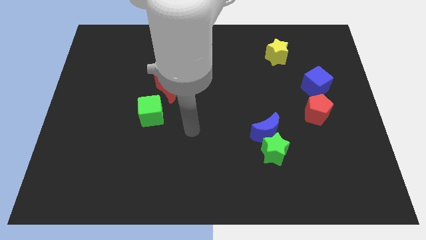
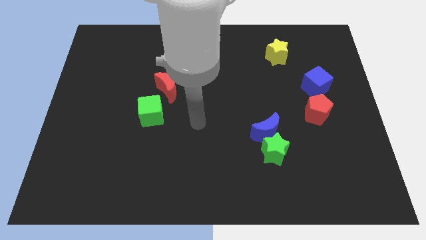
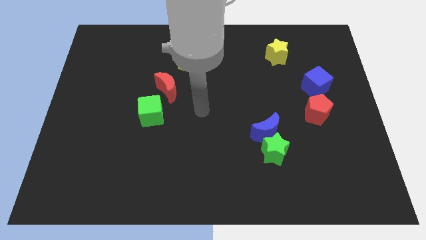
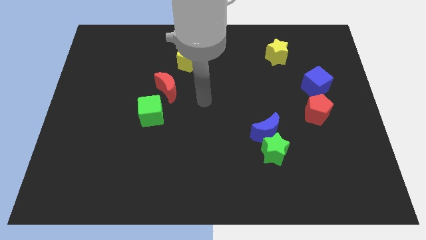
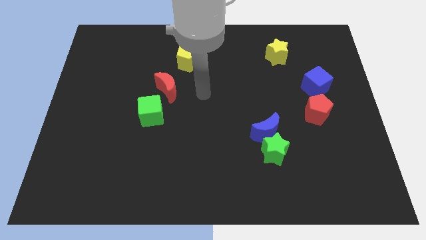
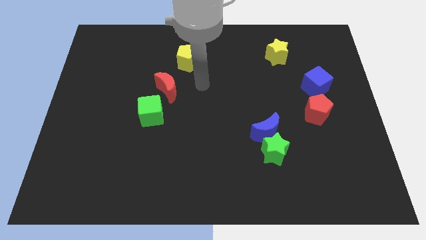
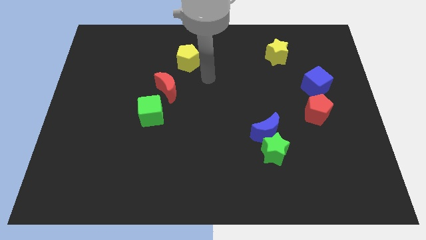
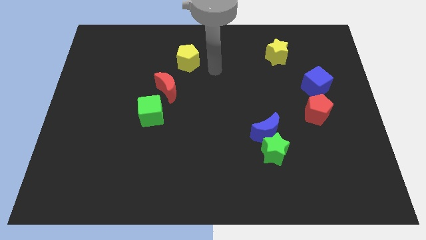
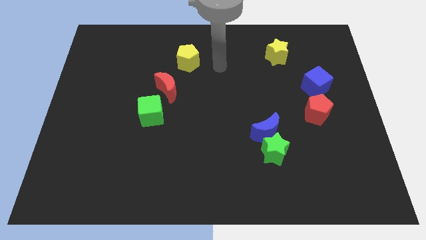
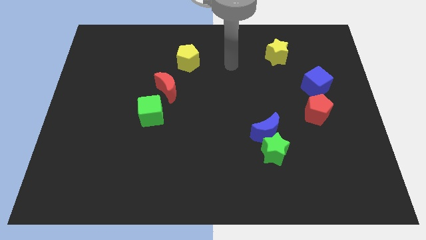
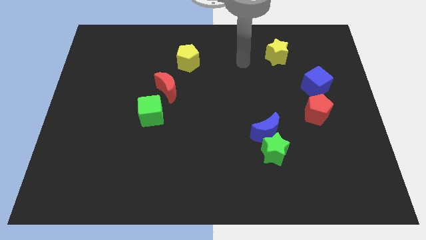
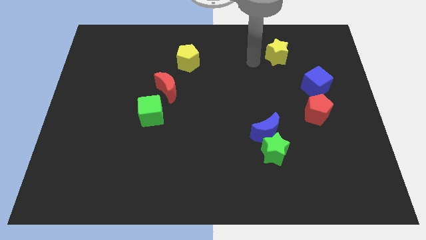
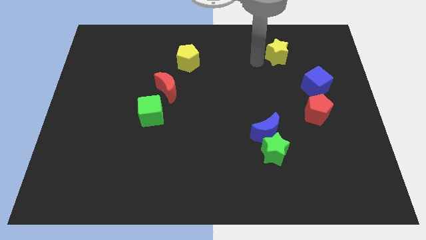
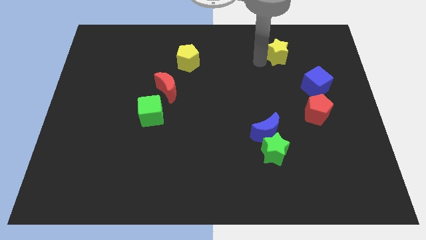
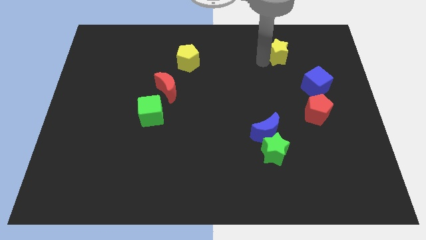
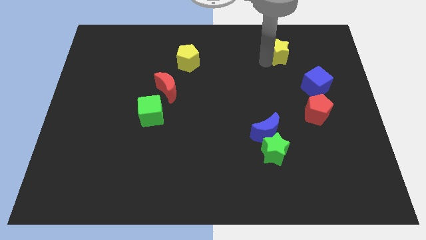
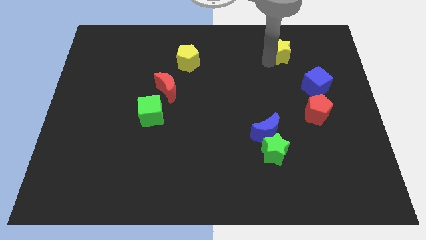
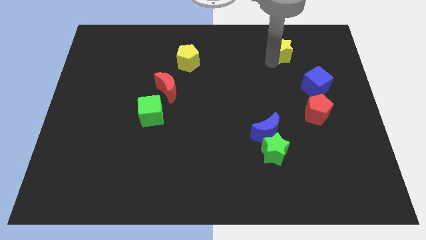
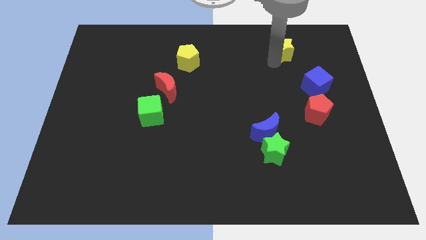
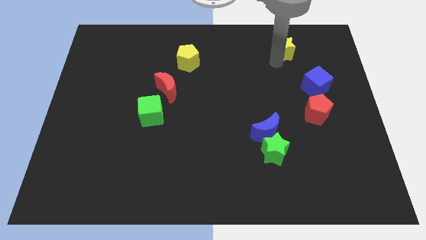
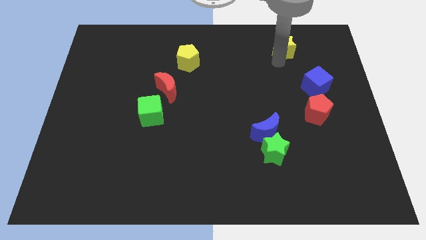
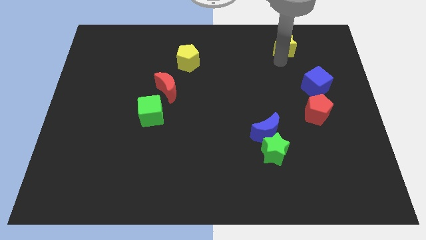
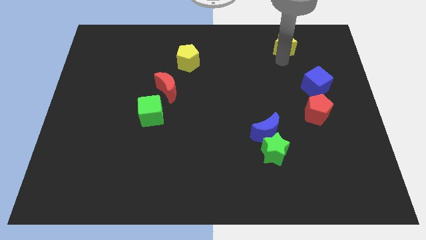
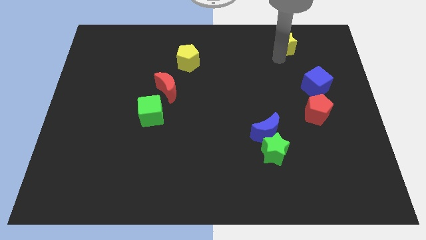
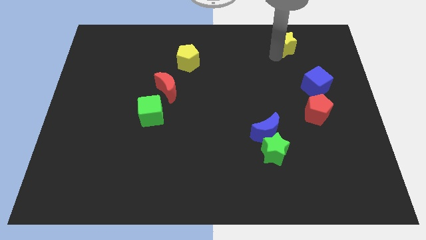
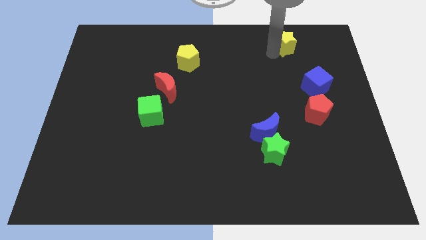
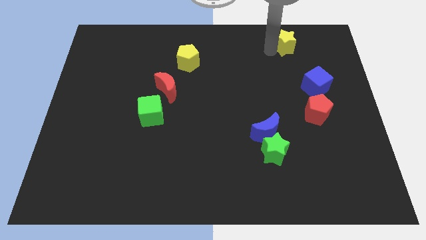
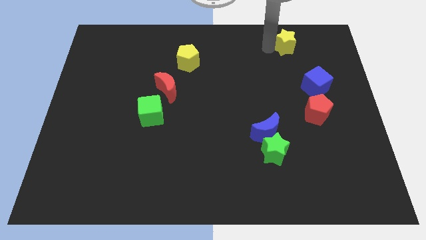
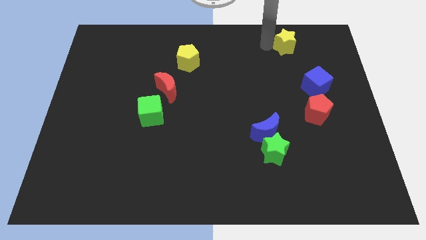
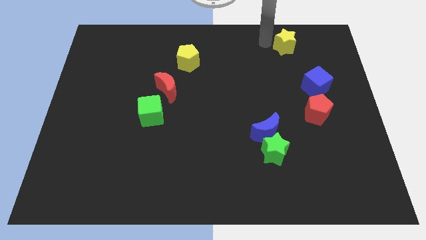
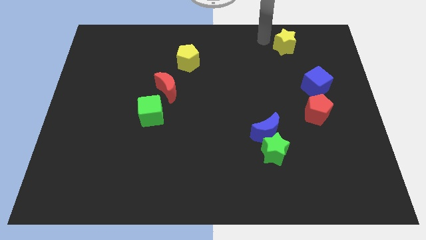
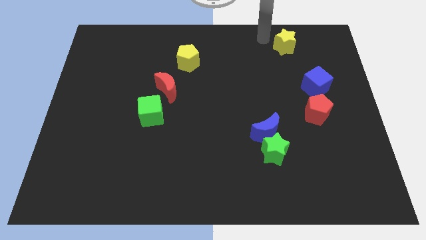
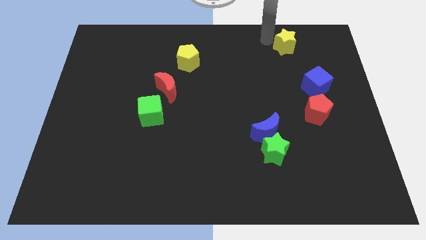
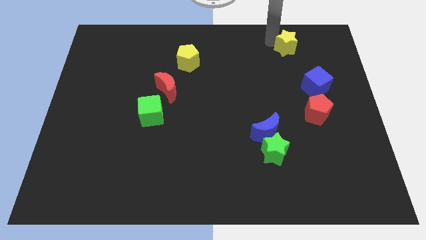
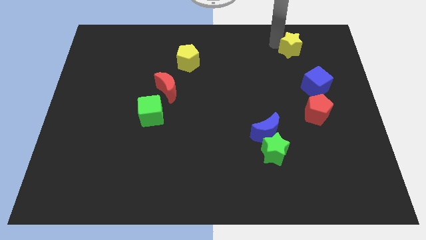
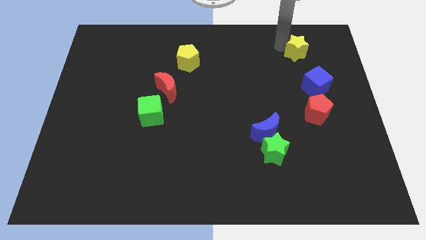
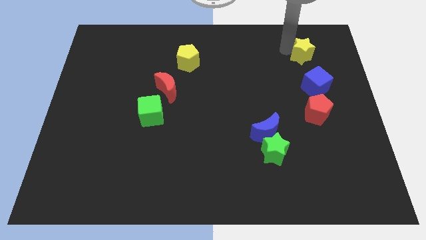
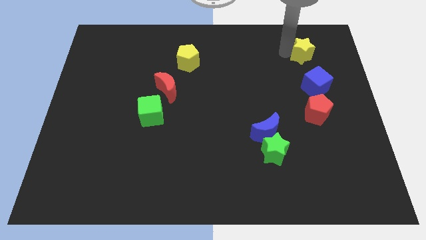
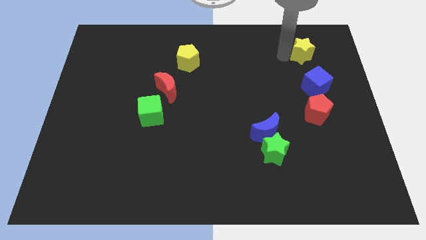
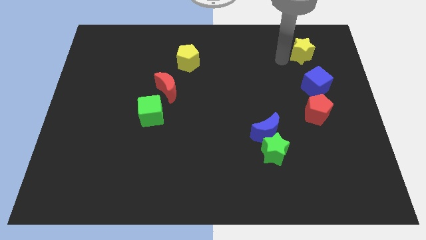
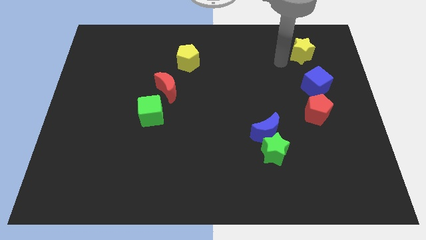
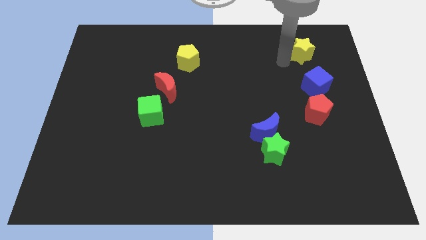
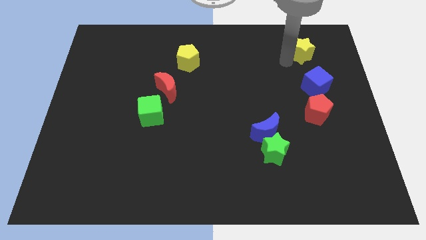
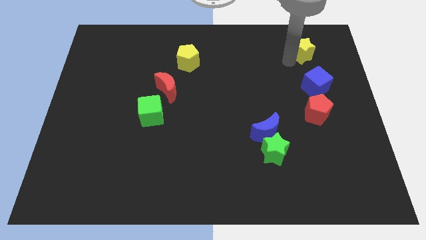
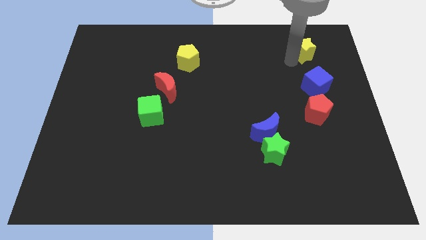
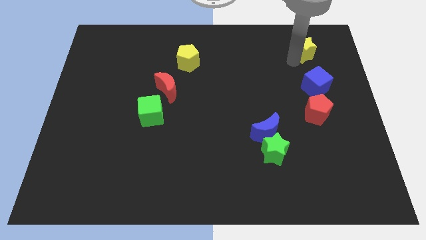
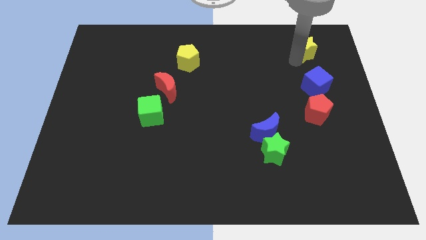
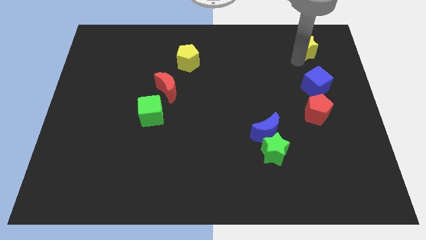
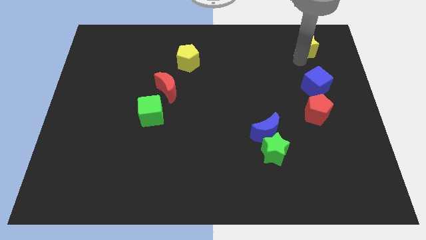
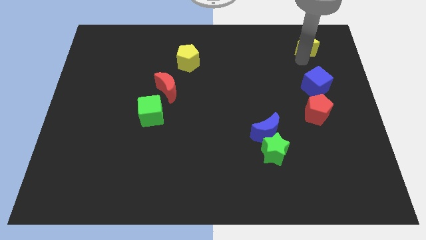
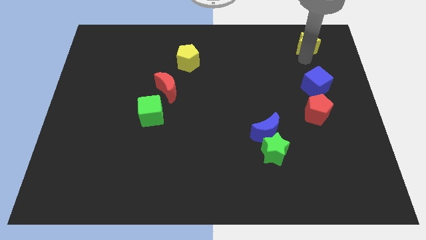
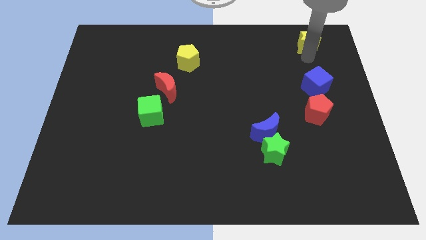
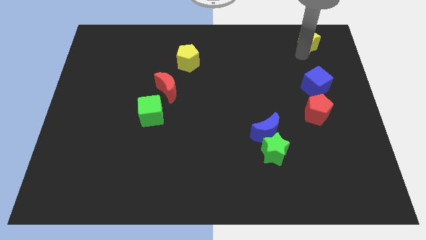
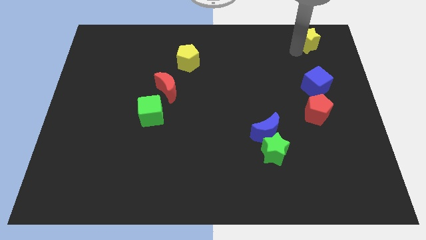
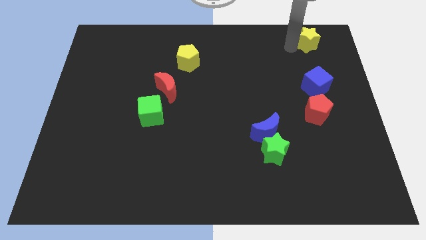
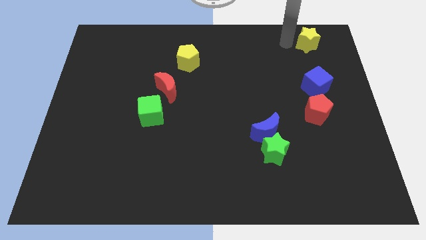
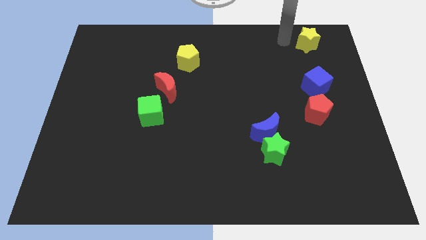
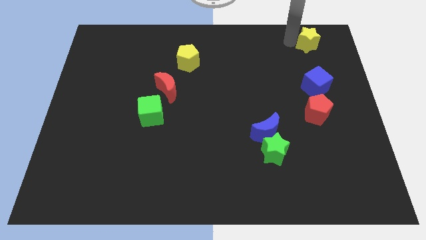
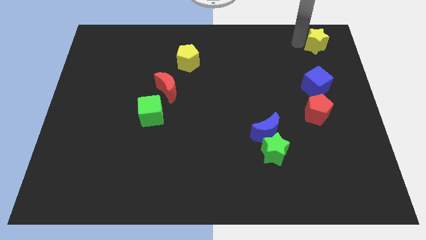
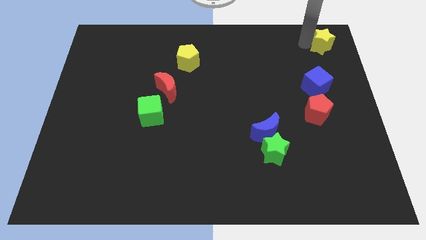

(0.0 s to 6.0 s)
put the yellow star to the upper right corner

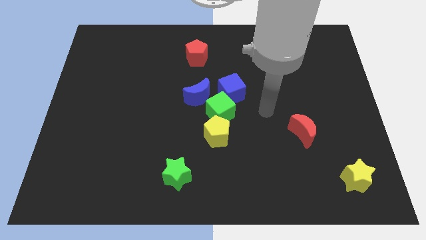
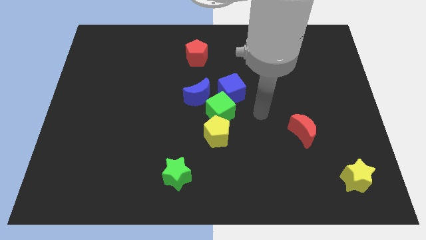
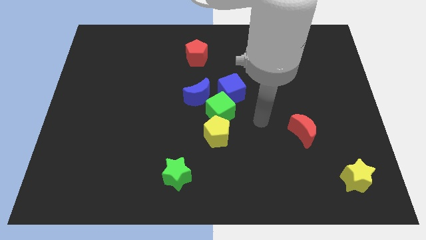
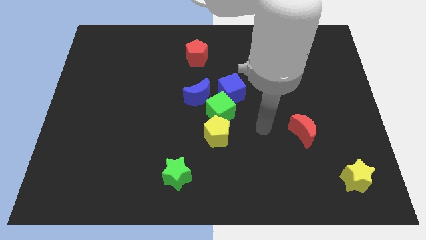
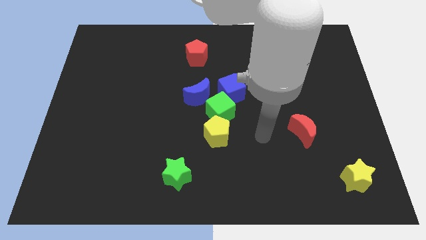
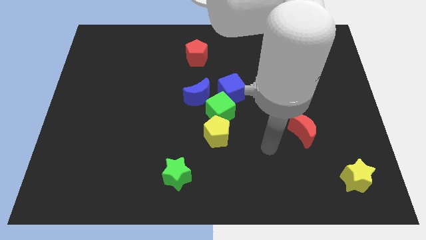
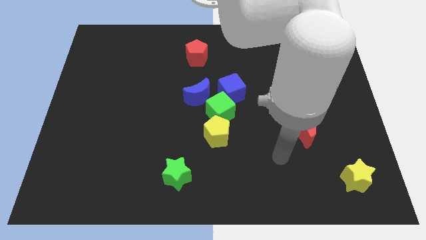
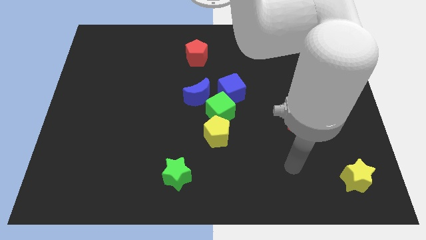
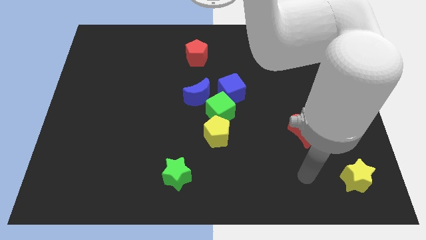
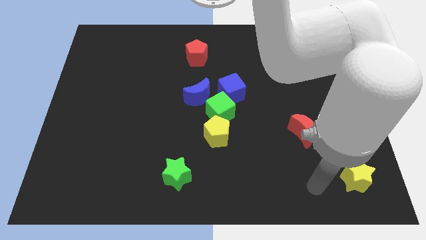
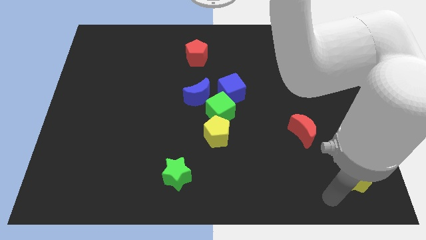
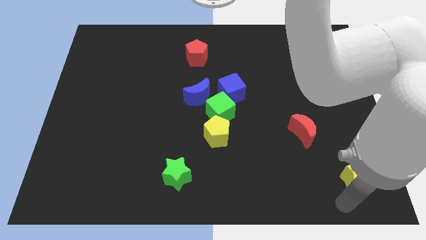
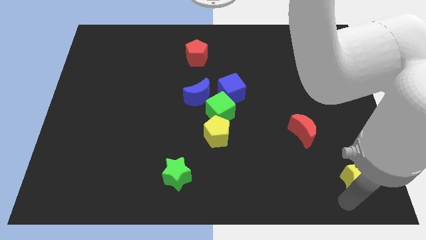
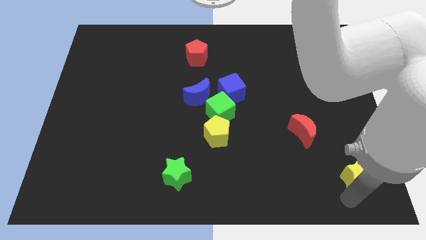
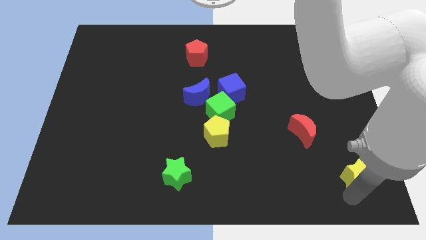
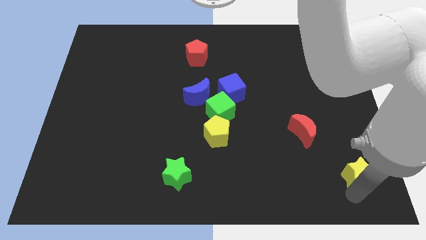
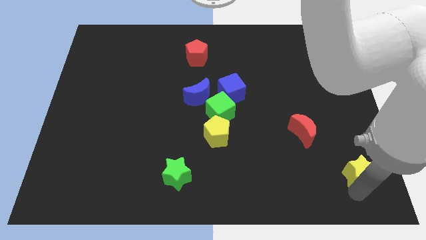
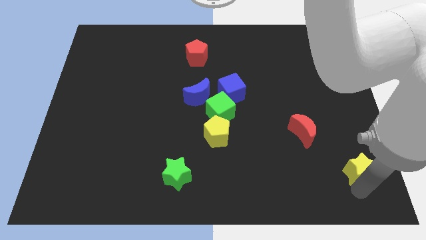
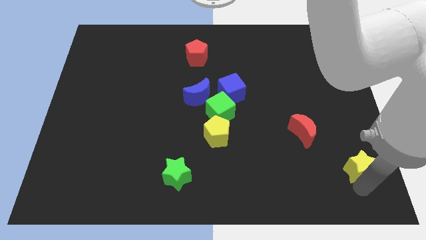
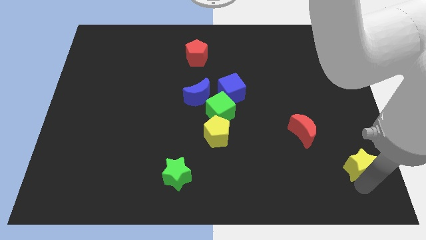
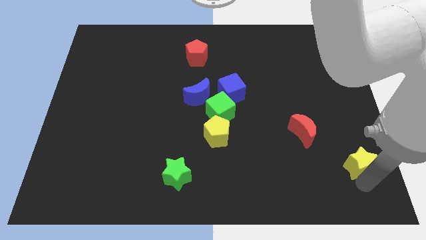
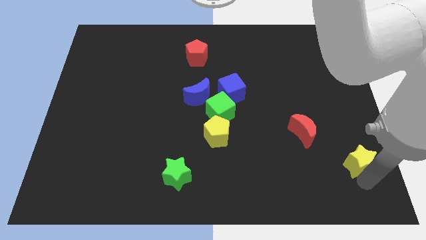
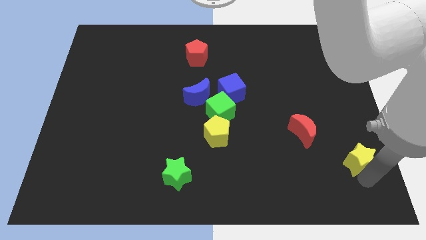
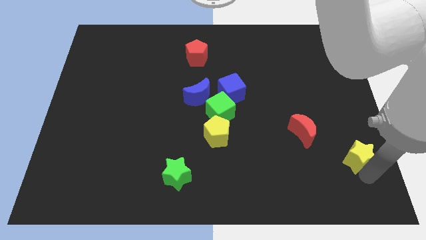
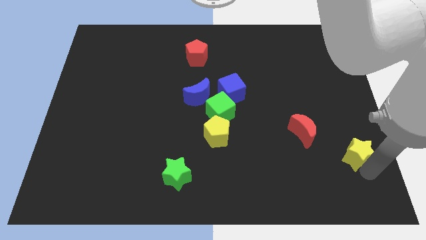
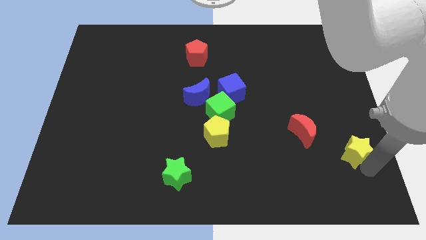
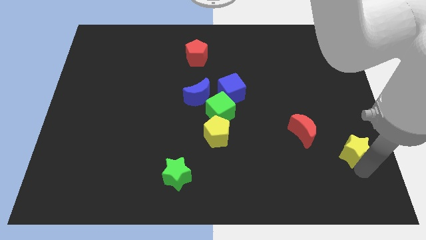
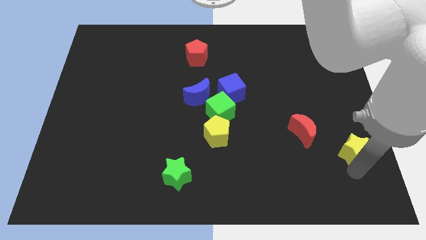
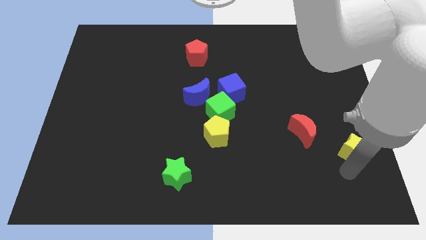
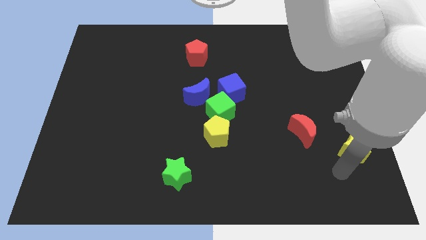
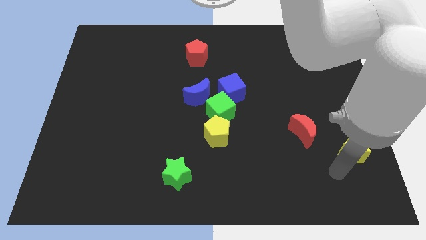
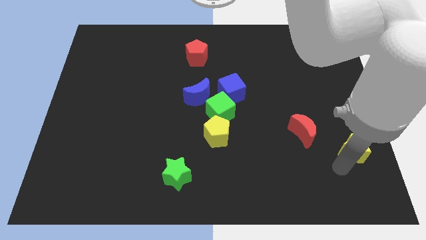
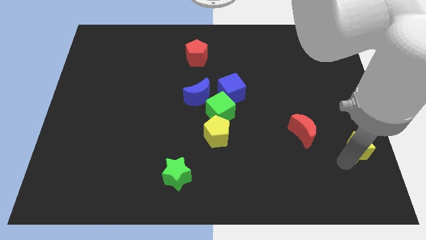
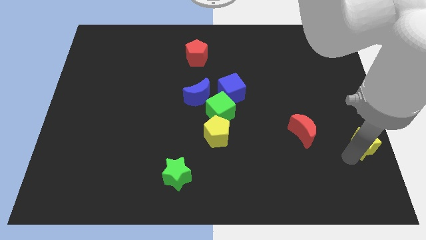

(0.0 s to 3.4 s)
move the yellow star to the right side of the board
